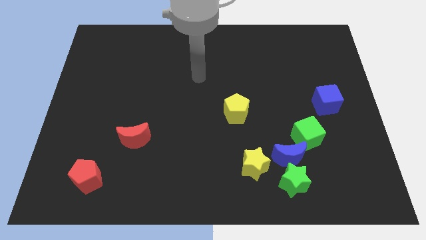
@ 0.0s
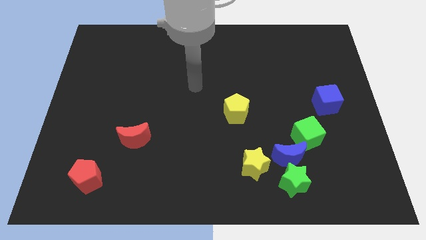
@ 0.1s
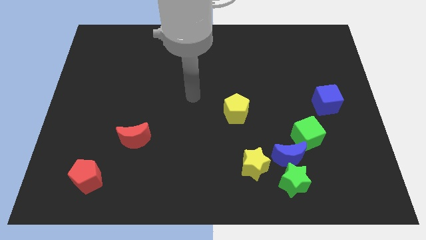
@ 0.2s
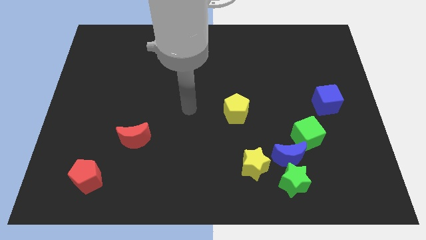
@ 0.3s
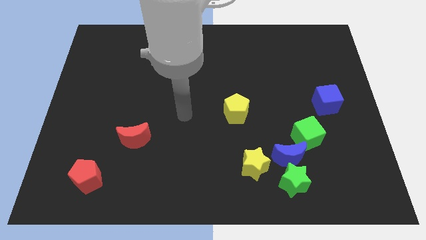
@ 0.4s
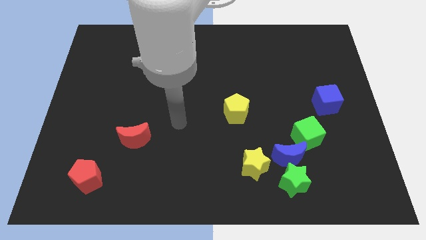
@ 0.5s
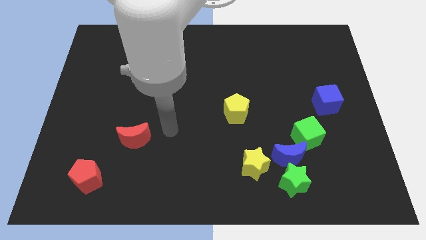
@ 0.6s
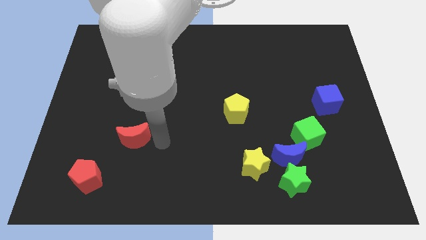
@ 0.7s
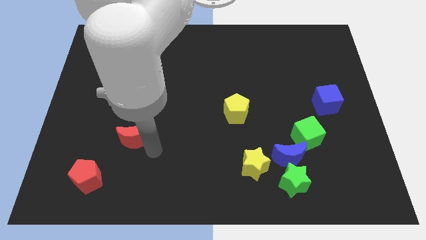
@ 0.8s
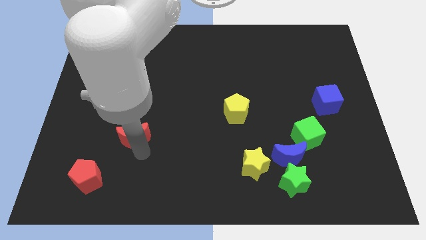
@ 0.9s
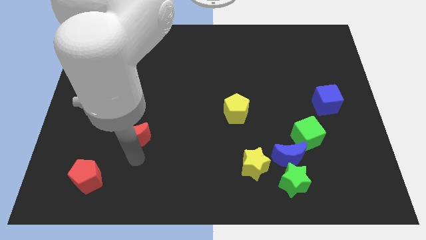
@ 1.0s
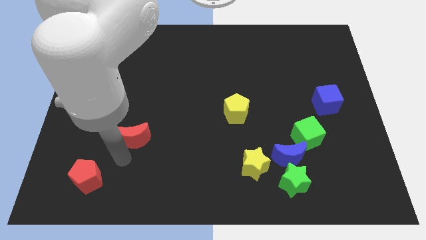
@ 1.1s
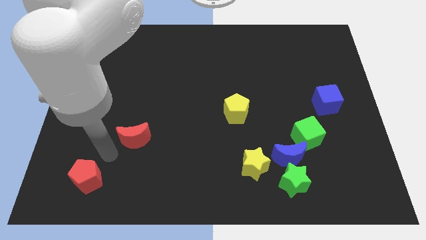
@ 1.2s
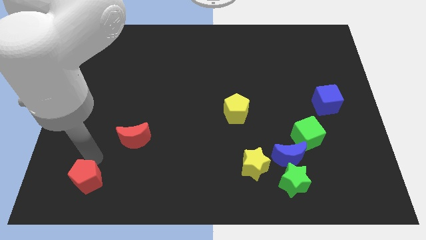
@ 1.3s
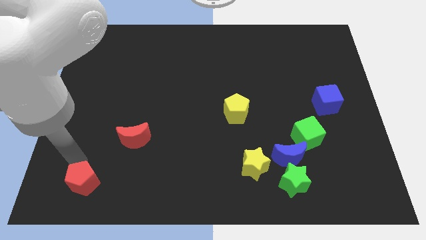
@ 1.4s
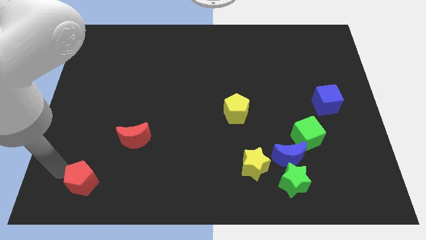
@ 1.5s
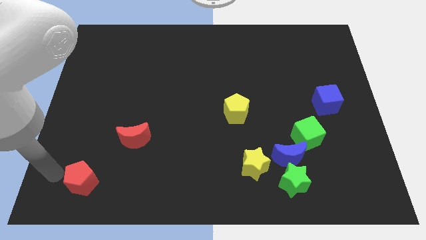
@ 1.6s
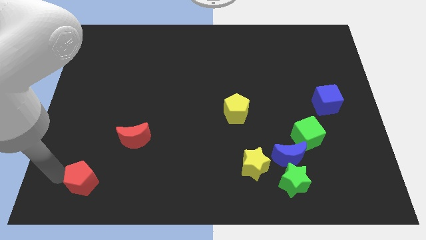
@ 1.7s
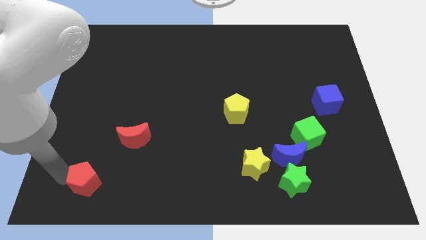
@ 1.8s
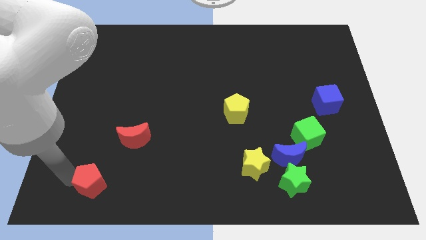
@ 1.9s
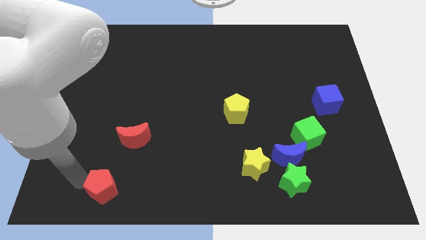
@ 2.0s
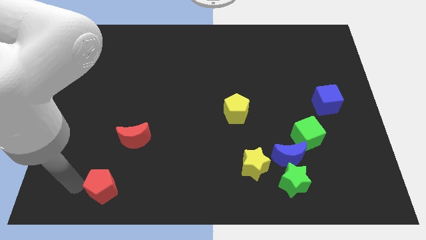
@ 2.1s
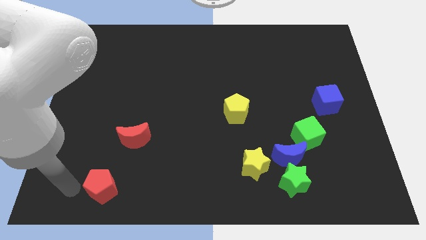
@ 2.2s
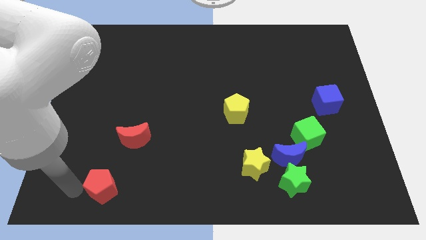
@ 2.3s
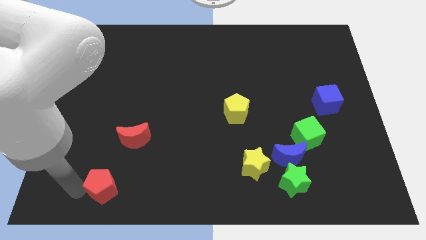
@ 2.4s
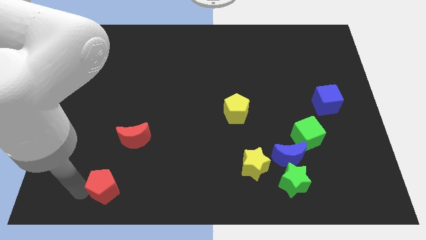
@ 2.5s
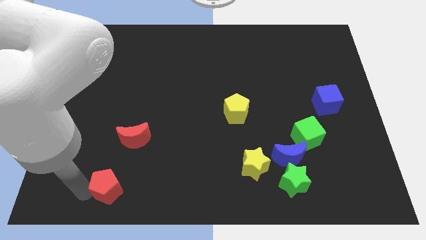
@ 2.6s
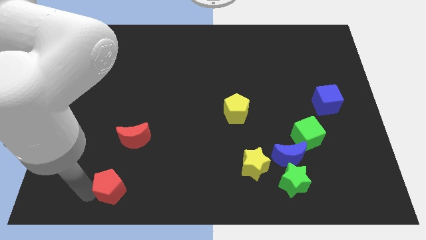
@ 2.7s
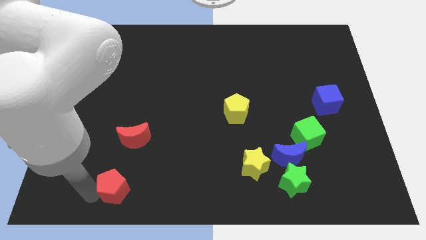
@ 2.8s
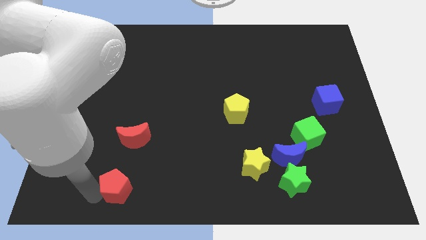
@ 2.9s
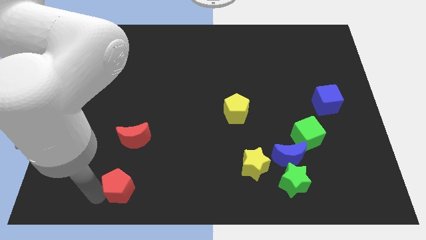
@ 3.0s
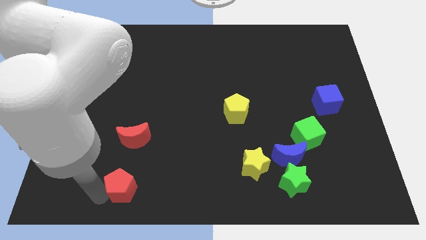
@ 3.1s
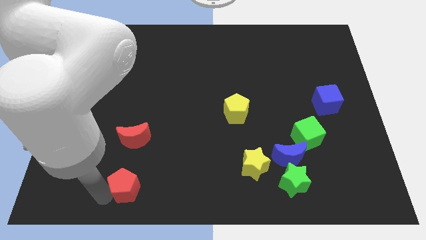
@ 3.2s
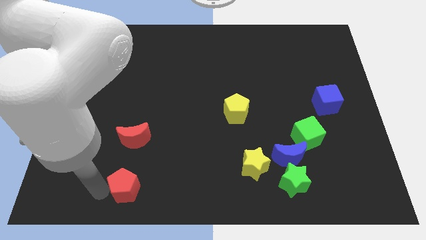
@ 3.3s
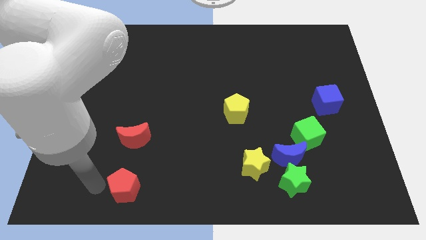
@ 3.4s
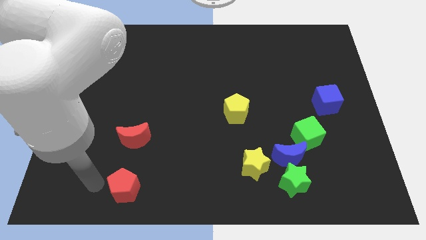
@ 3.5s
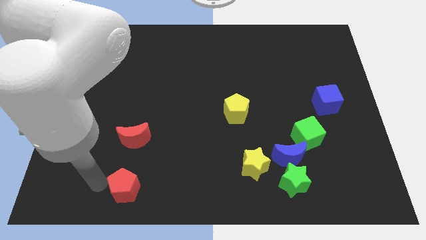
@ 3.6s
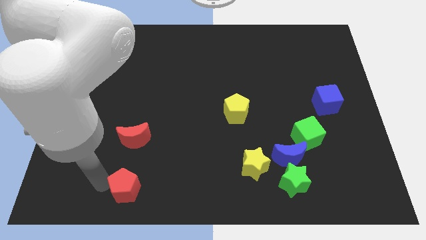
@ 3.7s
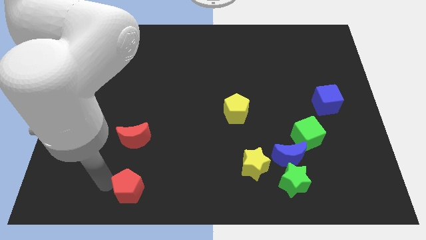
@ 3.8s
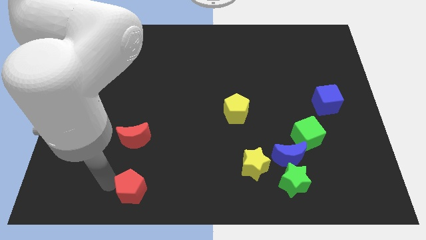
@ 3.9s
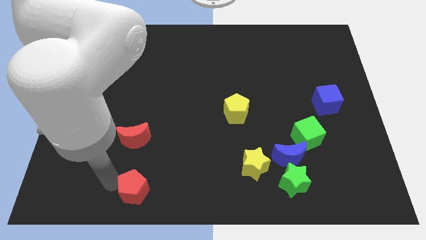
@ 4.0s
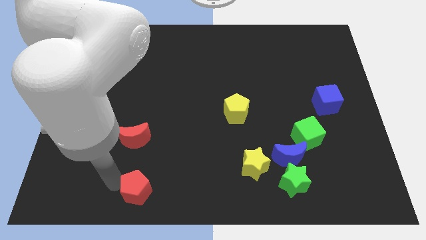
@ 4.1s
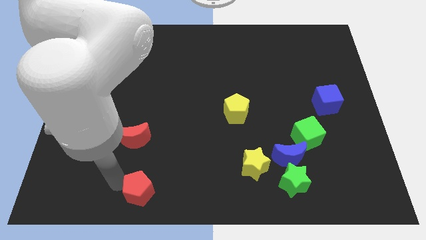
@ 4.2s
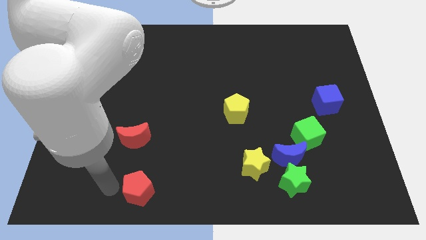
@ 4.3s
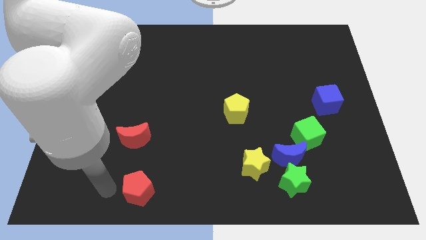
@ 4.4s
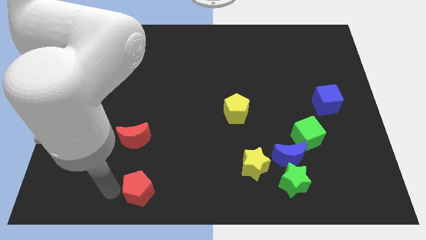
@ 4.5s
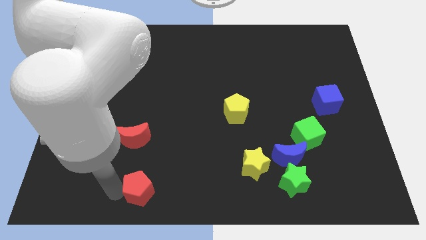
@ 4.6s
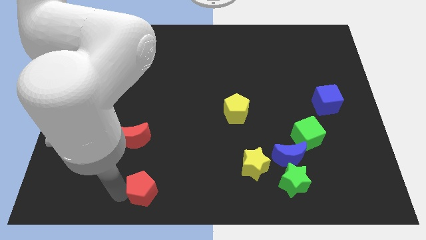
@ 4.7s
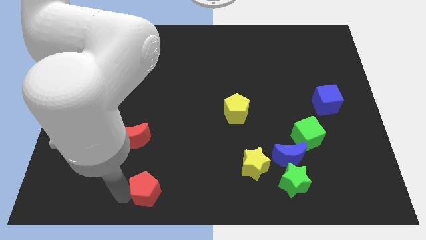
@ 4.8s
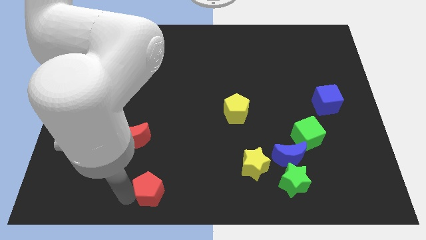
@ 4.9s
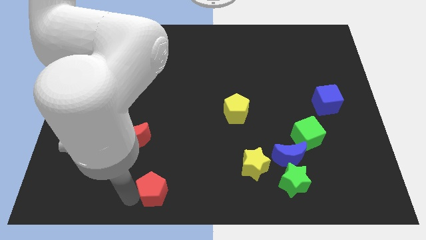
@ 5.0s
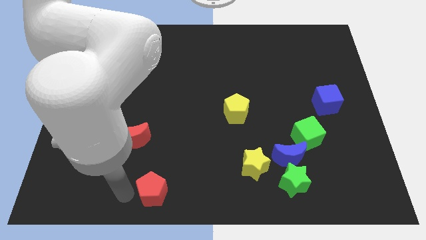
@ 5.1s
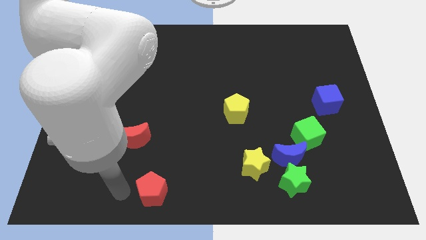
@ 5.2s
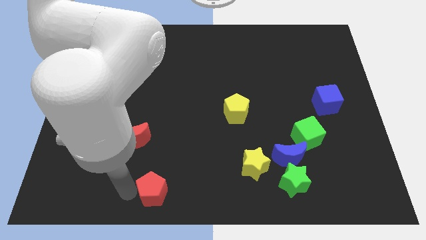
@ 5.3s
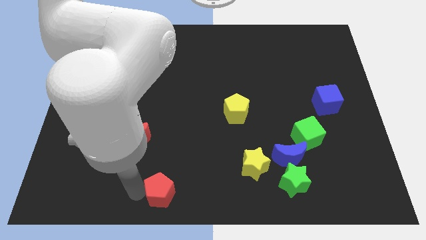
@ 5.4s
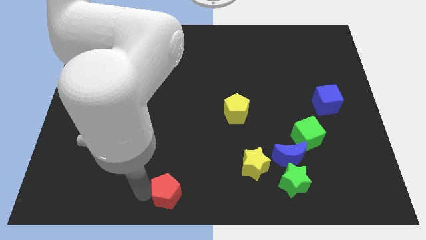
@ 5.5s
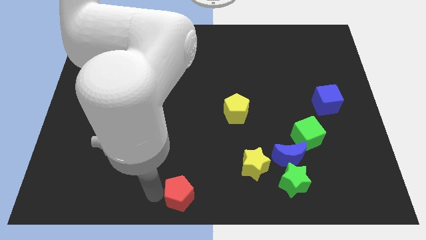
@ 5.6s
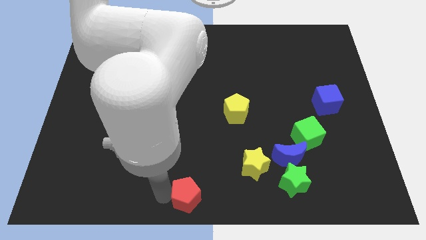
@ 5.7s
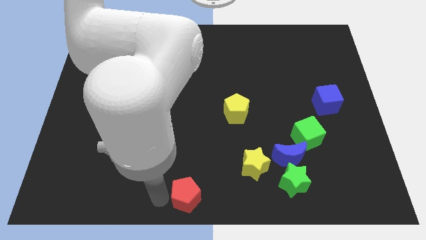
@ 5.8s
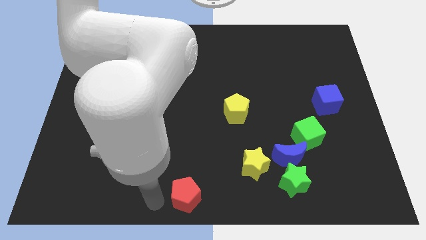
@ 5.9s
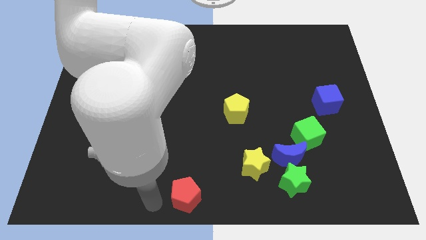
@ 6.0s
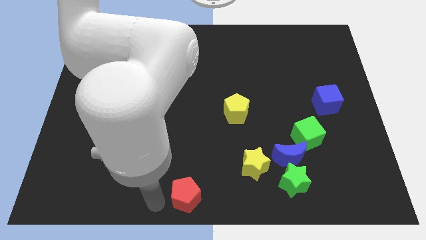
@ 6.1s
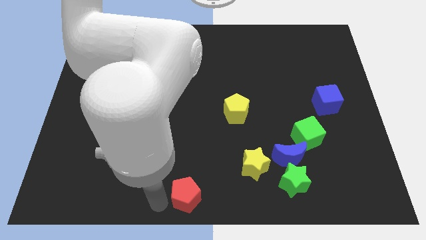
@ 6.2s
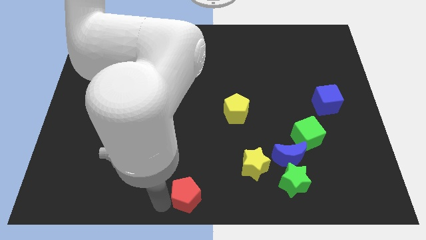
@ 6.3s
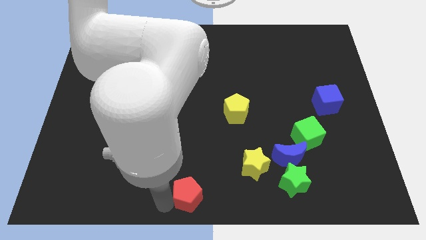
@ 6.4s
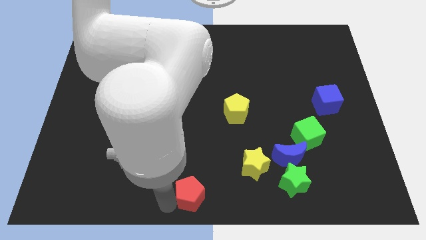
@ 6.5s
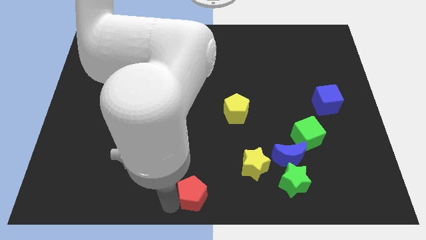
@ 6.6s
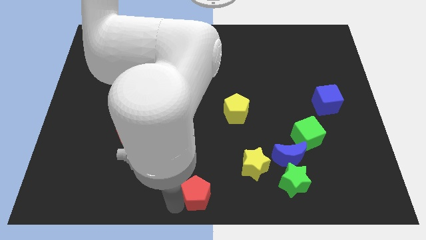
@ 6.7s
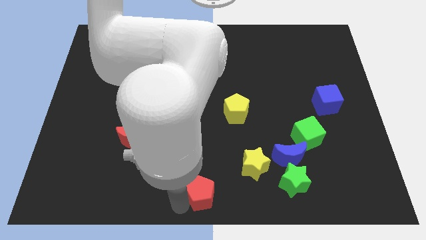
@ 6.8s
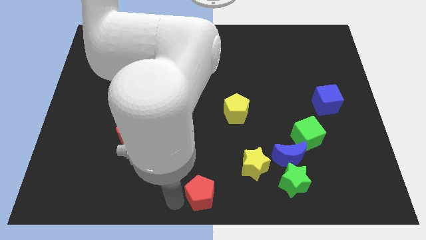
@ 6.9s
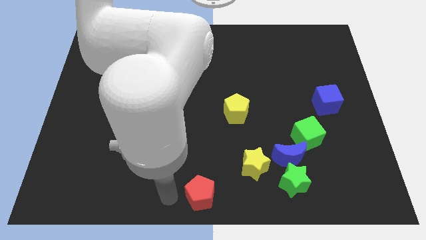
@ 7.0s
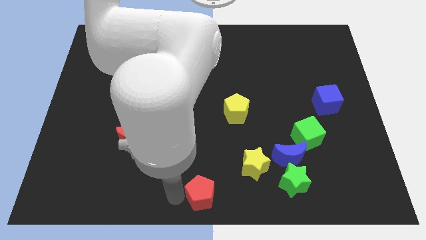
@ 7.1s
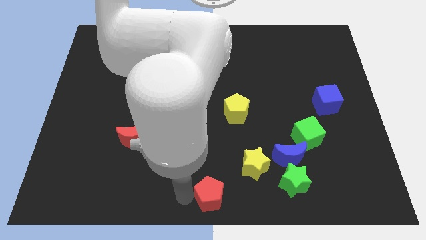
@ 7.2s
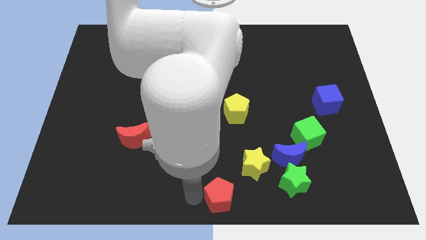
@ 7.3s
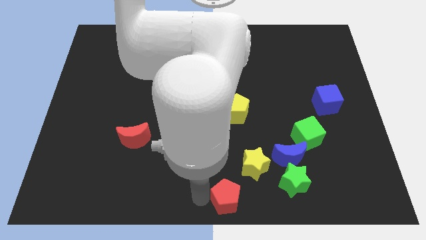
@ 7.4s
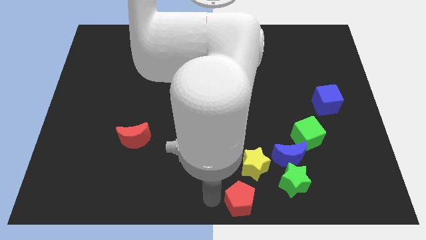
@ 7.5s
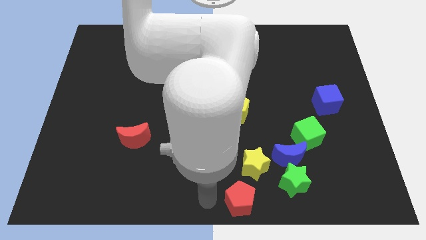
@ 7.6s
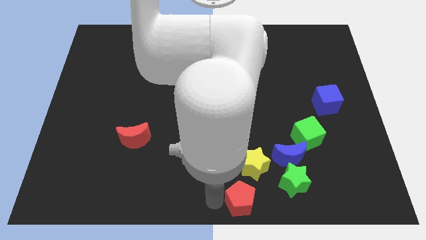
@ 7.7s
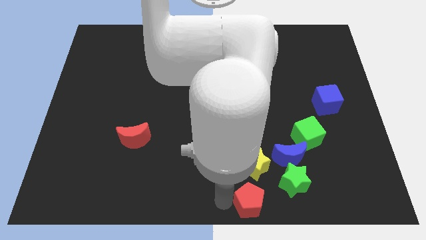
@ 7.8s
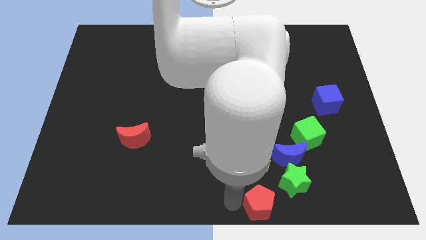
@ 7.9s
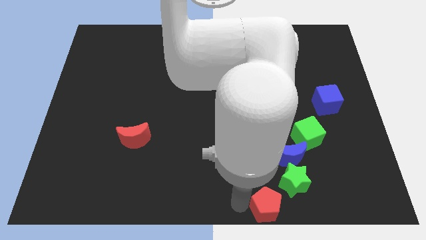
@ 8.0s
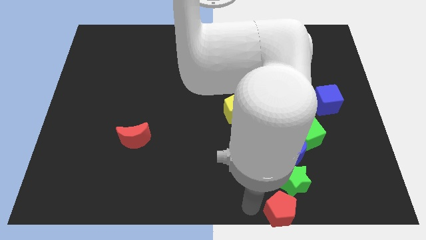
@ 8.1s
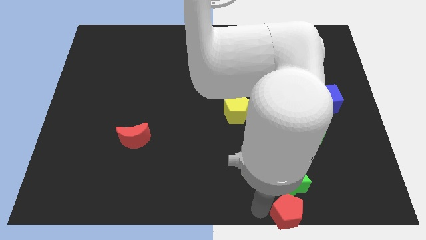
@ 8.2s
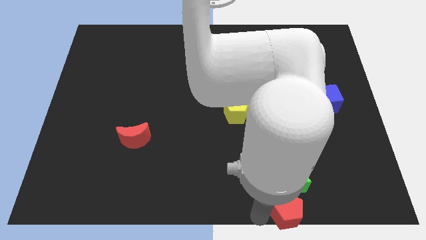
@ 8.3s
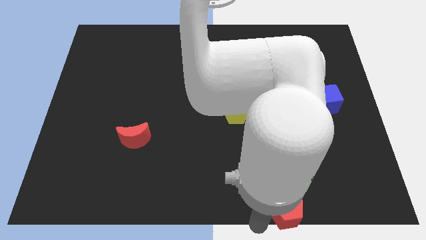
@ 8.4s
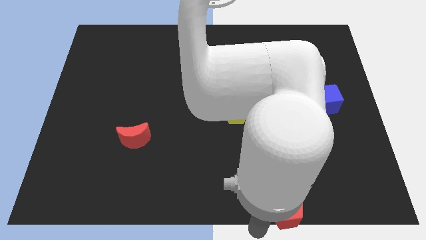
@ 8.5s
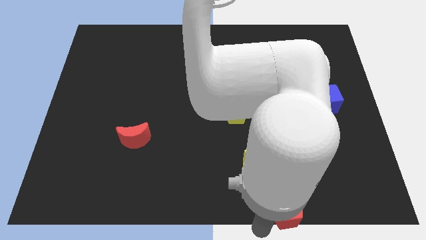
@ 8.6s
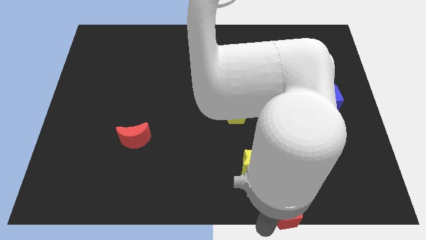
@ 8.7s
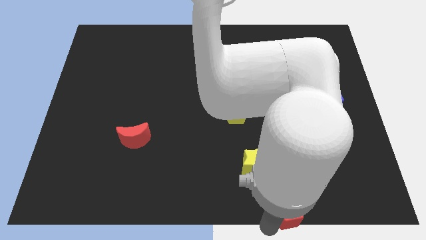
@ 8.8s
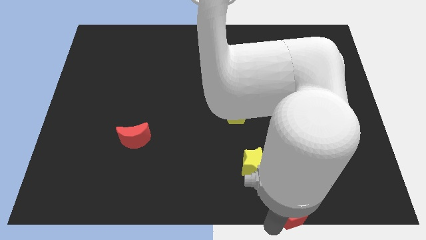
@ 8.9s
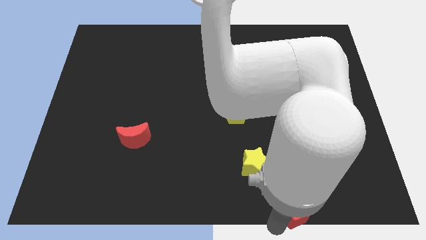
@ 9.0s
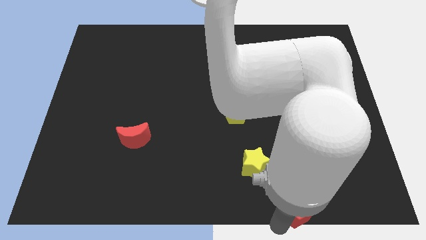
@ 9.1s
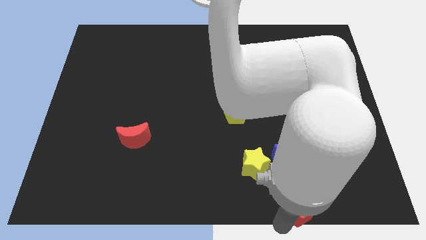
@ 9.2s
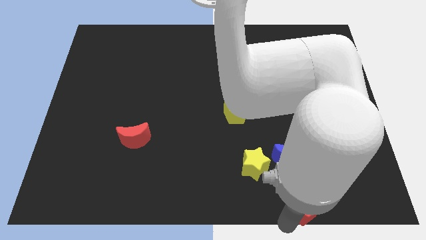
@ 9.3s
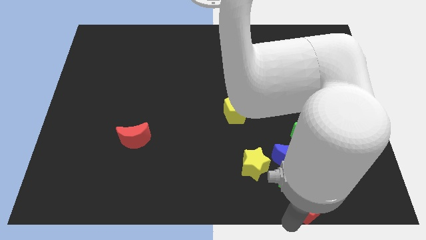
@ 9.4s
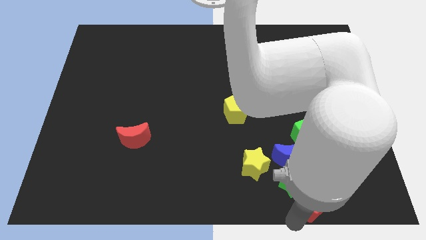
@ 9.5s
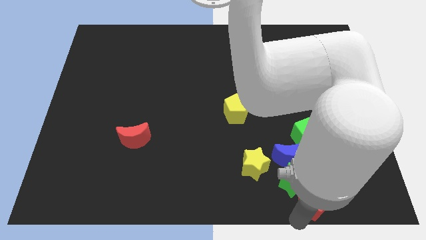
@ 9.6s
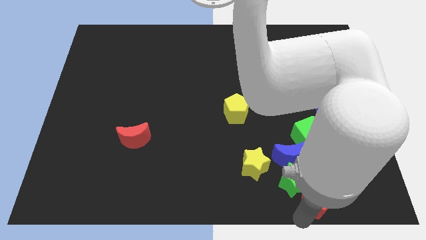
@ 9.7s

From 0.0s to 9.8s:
move the red pentagon diagonally down and to the right of the blue moon
